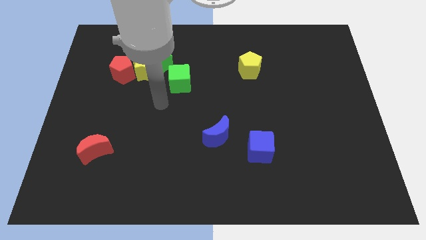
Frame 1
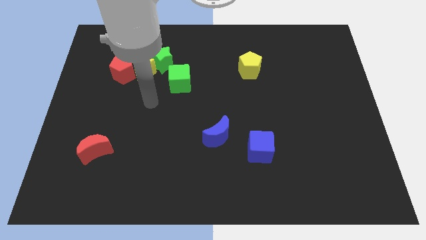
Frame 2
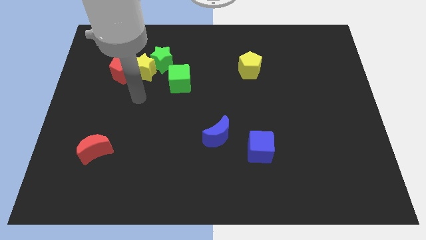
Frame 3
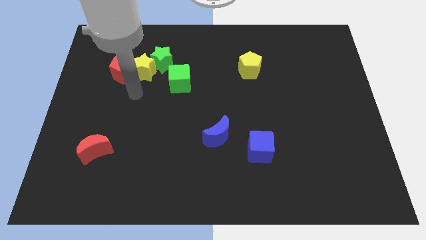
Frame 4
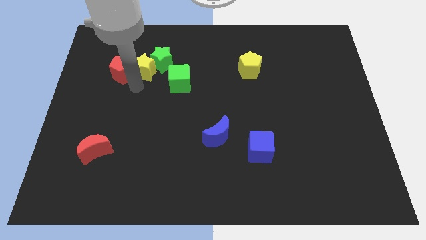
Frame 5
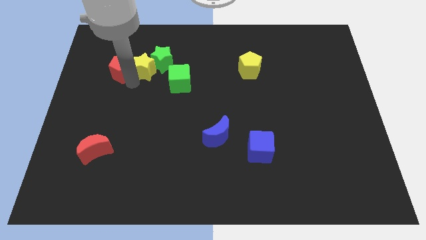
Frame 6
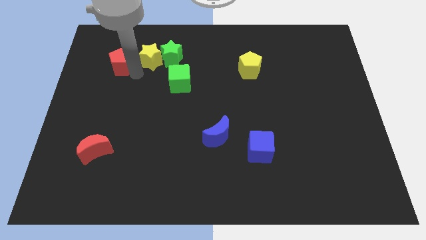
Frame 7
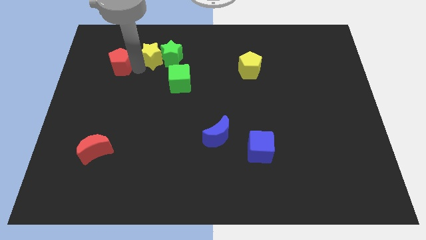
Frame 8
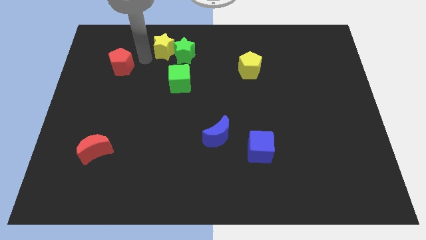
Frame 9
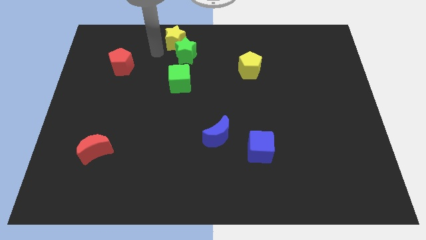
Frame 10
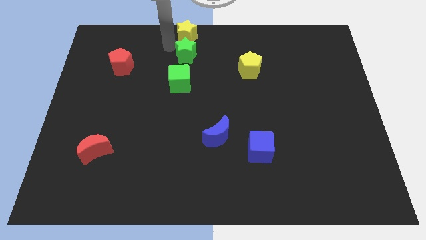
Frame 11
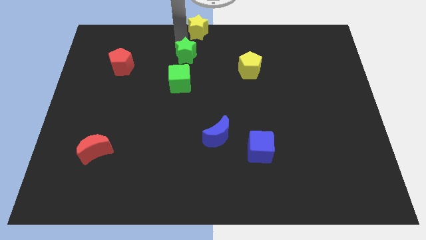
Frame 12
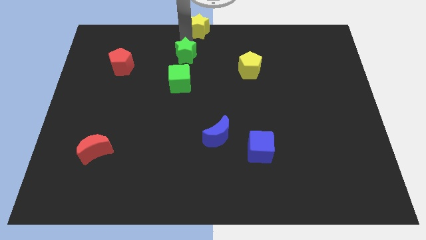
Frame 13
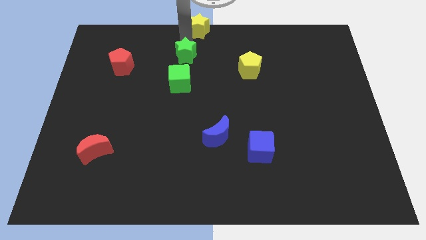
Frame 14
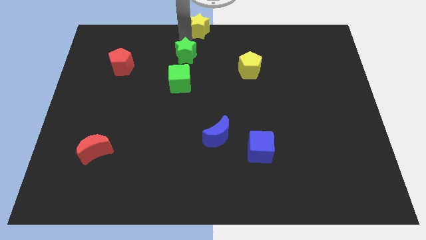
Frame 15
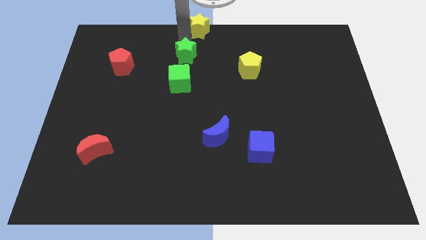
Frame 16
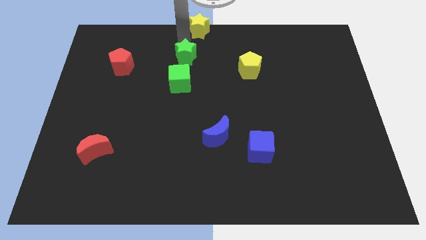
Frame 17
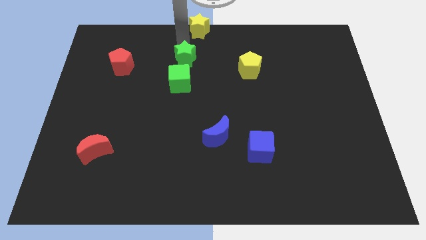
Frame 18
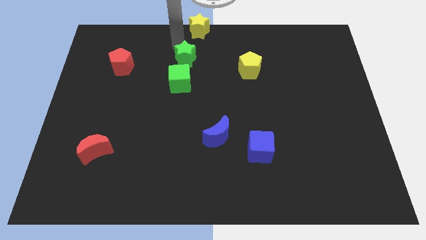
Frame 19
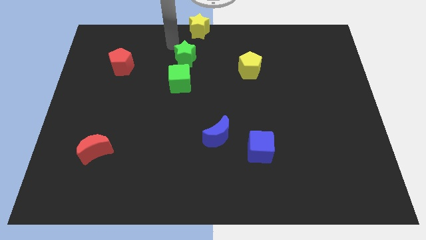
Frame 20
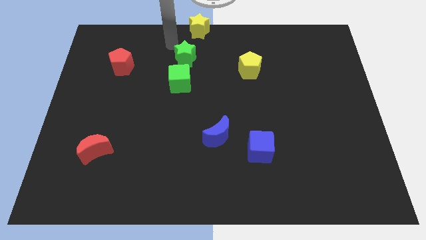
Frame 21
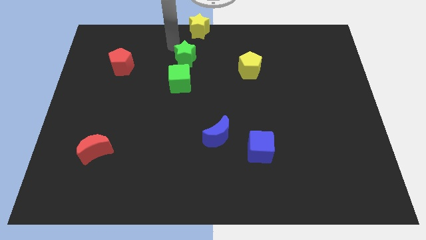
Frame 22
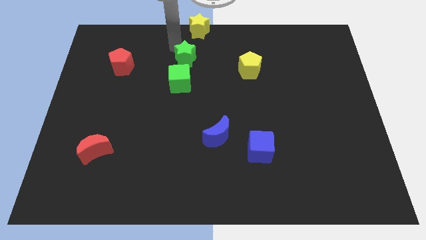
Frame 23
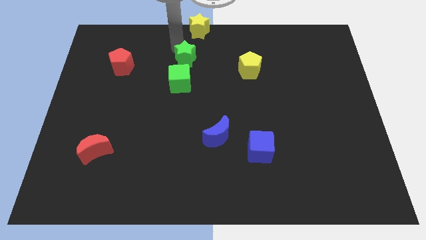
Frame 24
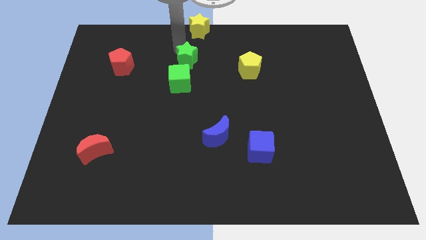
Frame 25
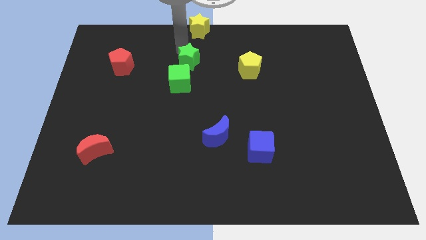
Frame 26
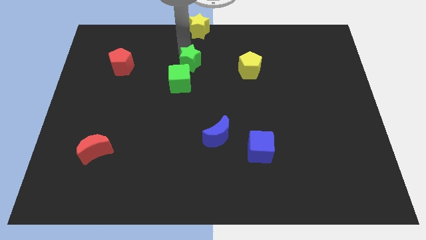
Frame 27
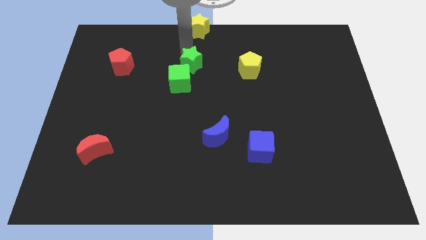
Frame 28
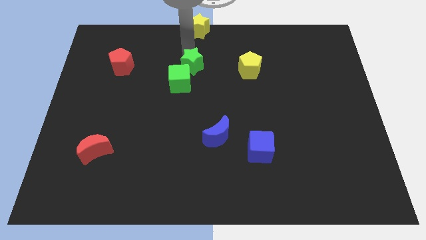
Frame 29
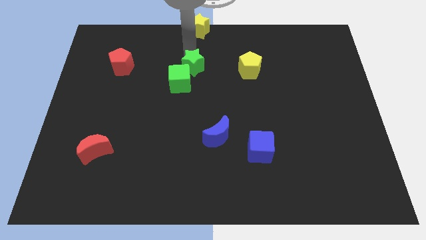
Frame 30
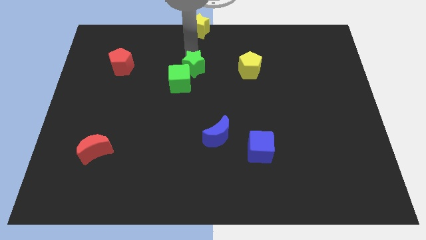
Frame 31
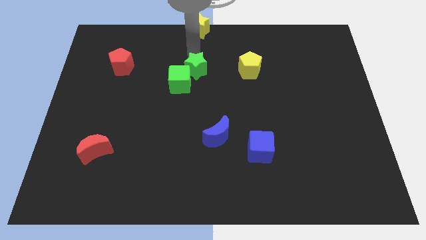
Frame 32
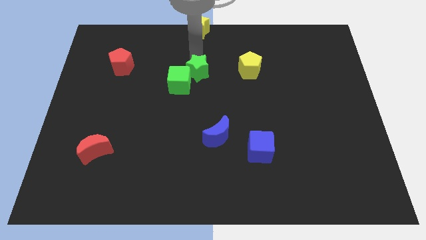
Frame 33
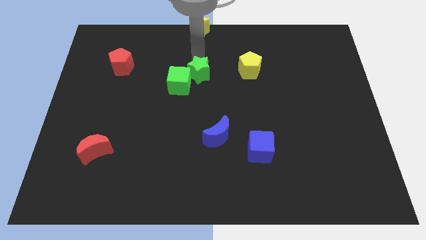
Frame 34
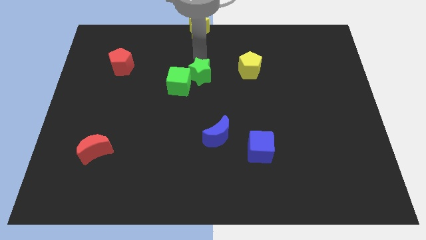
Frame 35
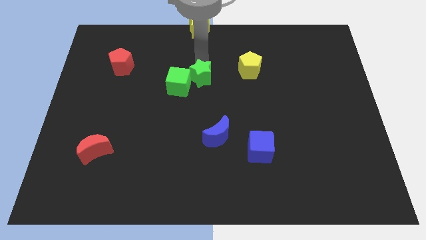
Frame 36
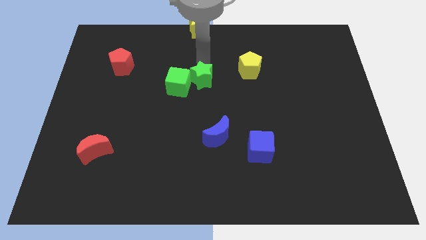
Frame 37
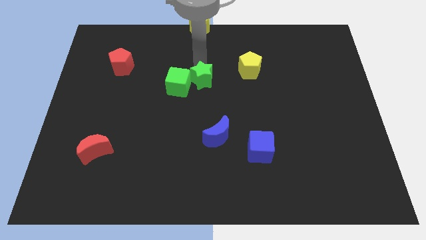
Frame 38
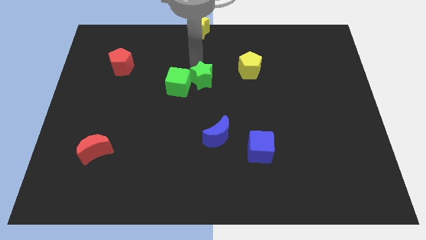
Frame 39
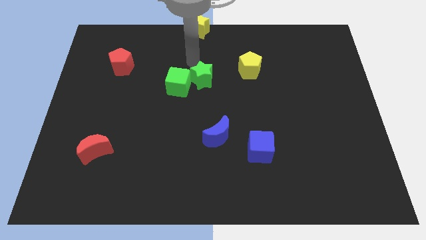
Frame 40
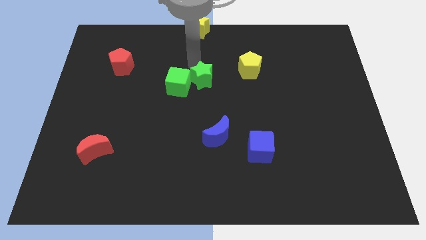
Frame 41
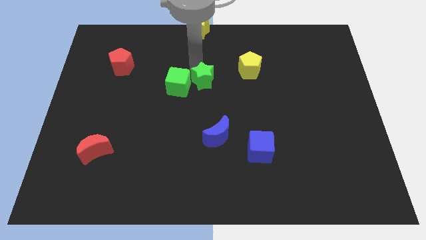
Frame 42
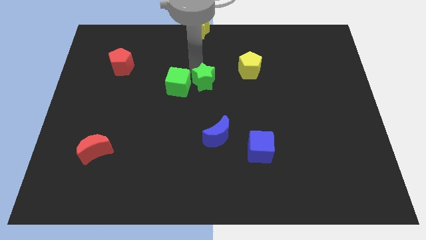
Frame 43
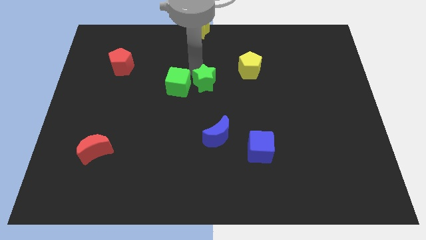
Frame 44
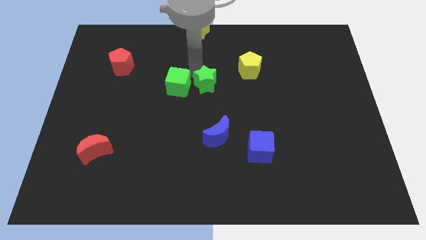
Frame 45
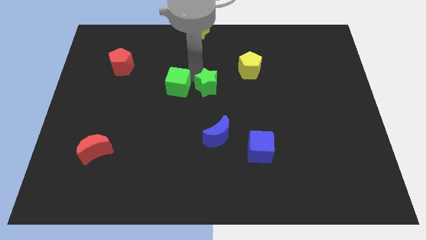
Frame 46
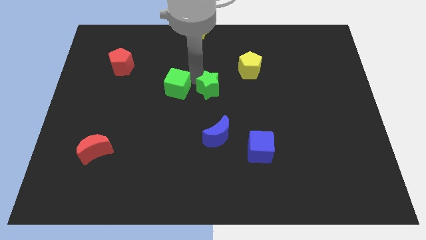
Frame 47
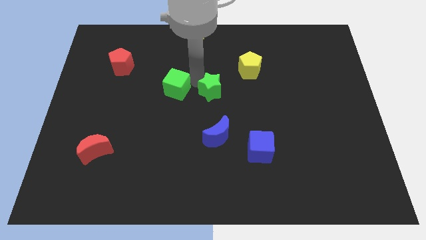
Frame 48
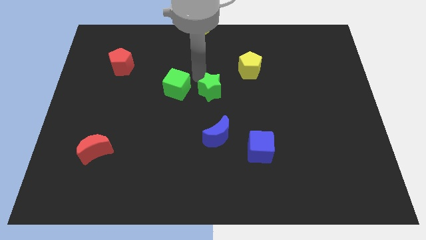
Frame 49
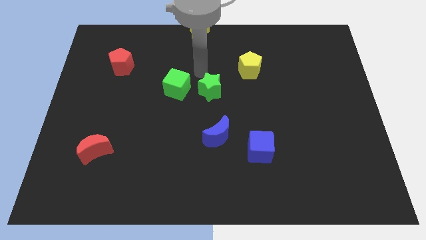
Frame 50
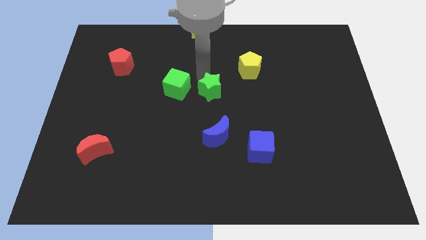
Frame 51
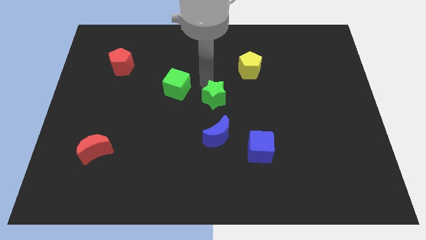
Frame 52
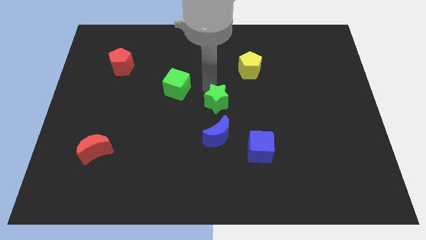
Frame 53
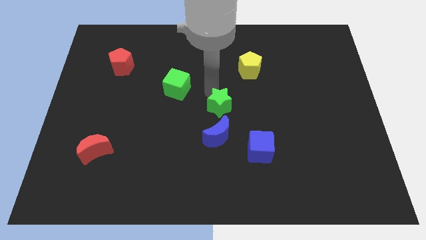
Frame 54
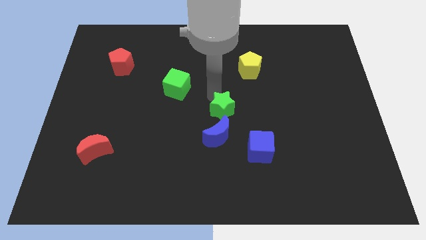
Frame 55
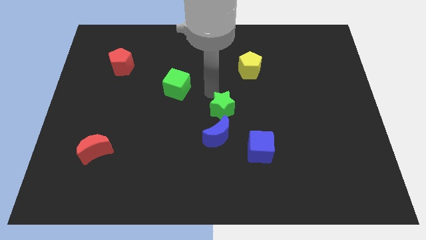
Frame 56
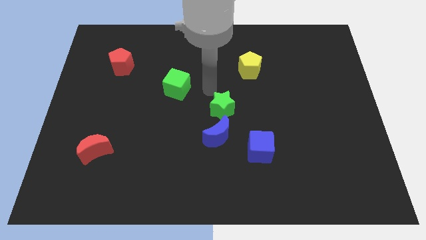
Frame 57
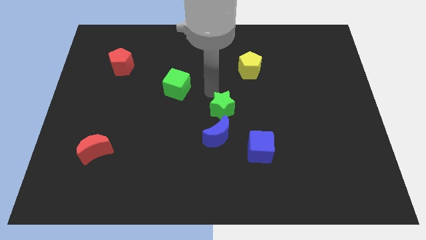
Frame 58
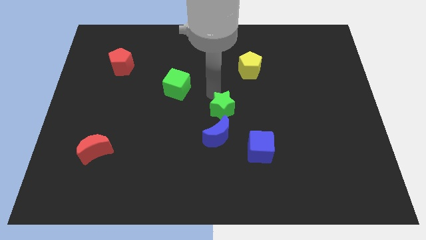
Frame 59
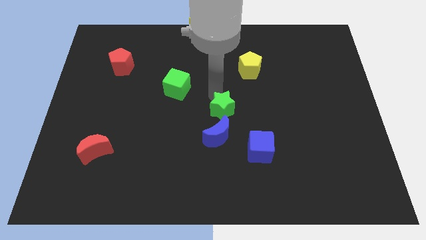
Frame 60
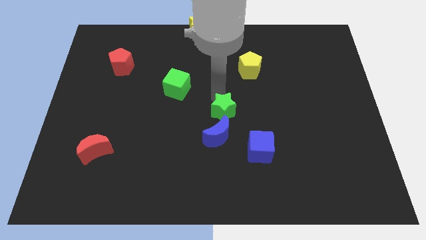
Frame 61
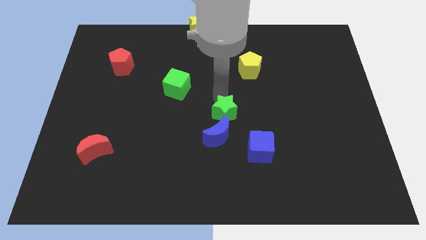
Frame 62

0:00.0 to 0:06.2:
slide the green star diagonally up and to the left of the blue cube

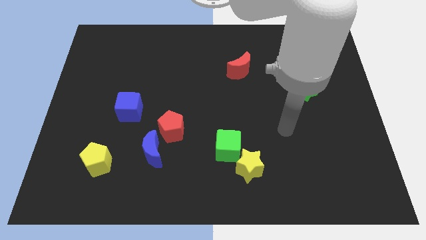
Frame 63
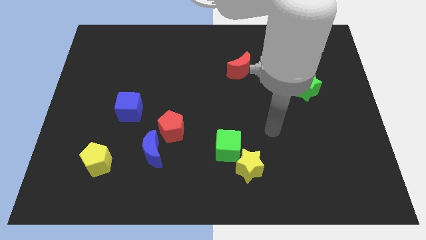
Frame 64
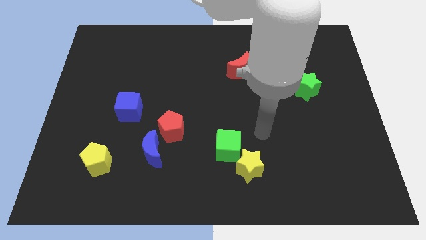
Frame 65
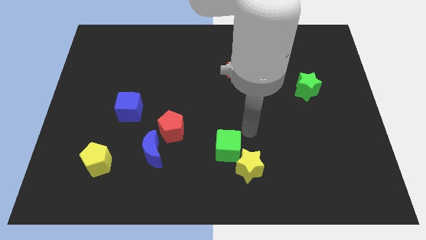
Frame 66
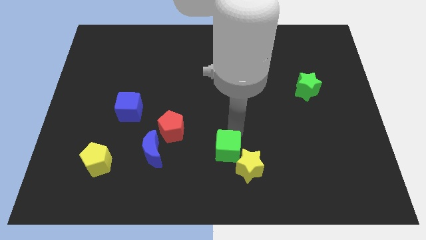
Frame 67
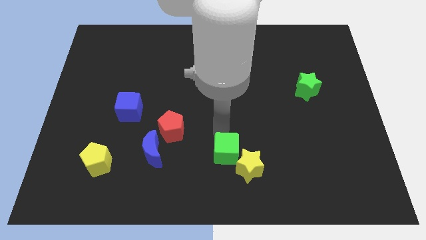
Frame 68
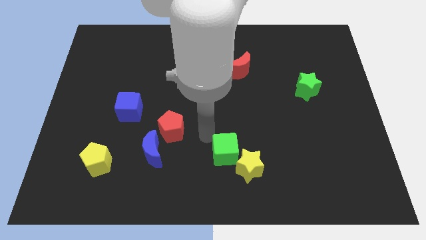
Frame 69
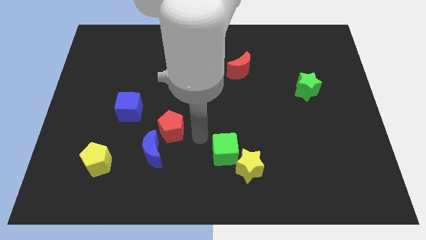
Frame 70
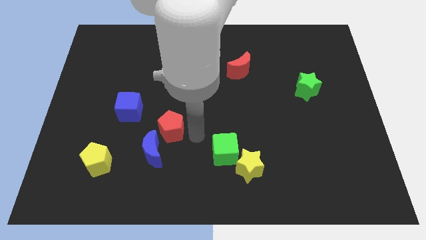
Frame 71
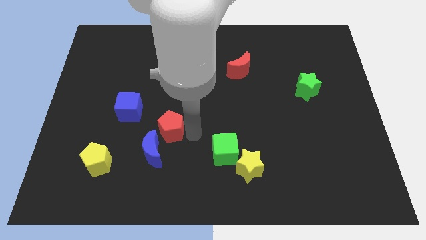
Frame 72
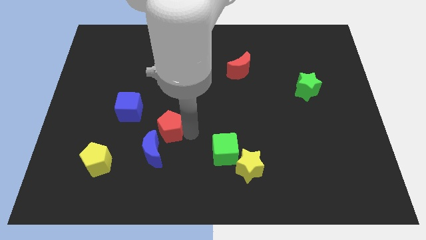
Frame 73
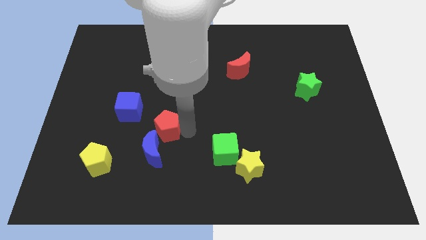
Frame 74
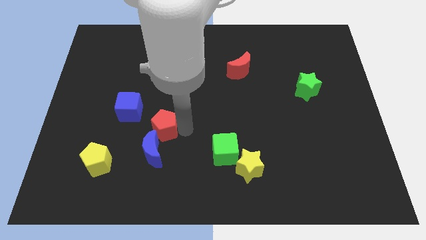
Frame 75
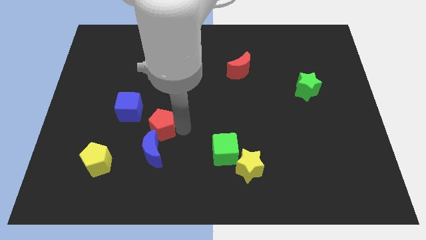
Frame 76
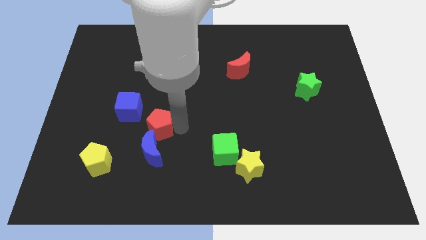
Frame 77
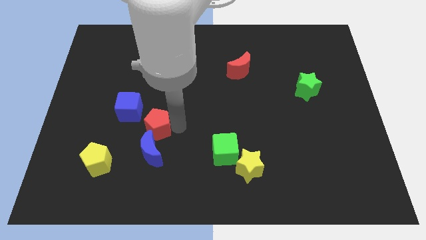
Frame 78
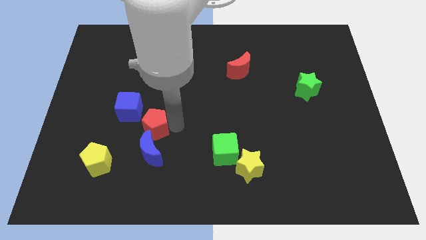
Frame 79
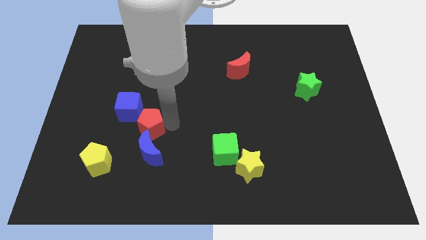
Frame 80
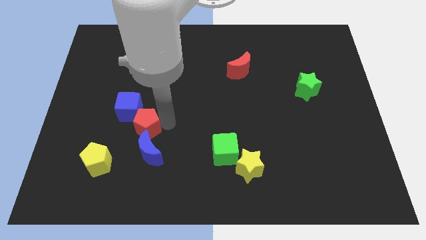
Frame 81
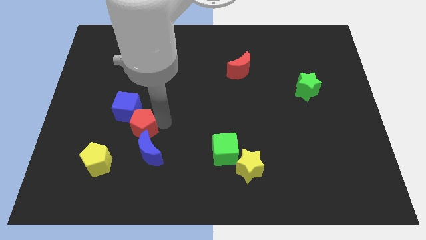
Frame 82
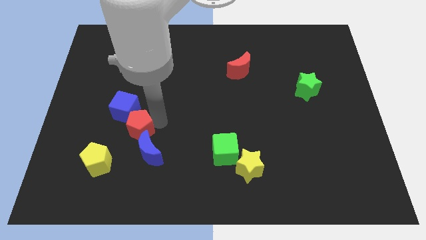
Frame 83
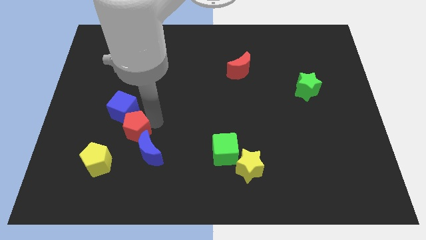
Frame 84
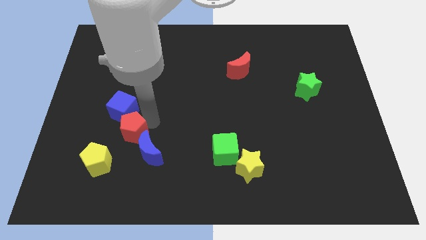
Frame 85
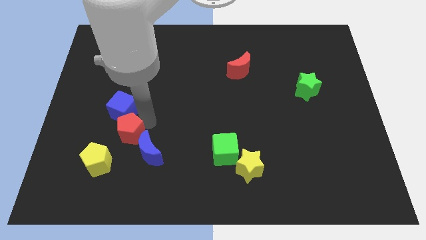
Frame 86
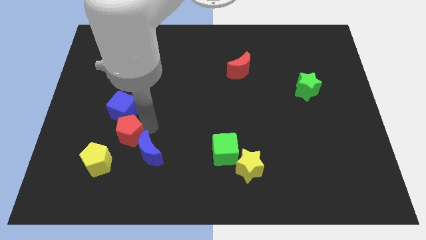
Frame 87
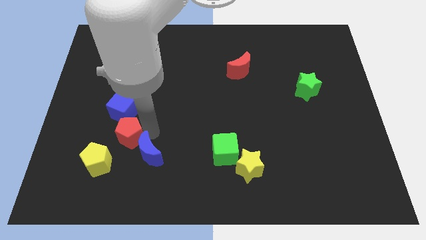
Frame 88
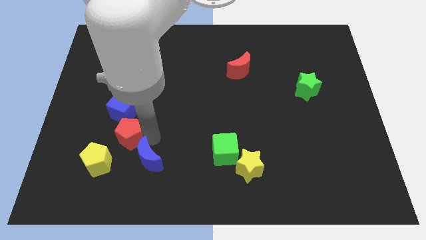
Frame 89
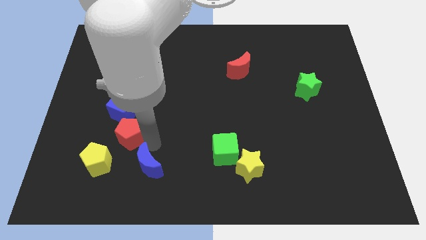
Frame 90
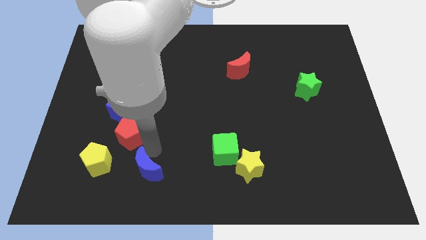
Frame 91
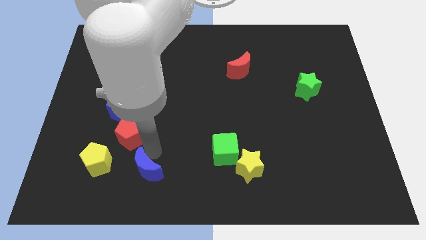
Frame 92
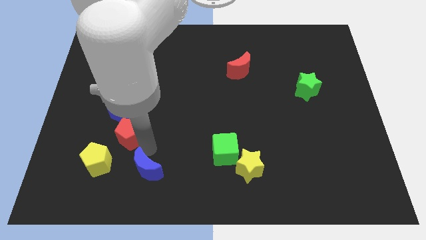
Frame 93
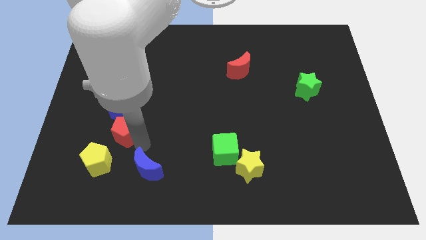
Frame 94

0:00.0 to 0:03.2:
put the red pentagon to the top side of the yellow pentagon
